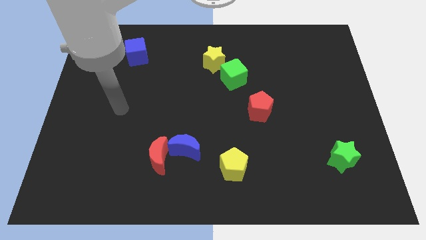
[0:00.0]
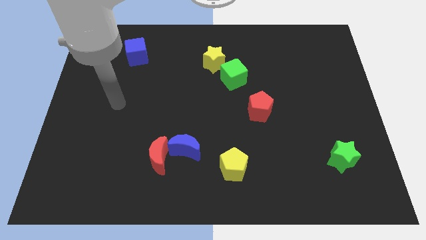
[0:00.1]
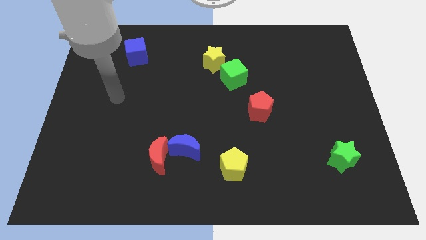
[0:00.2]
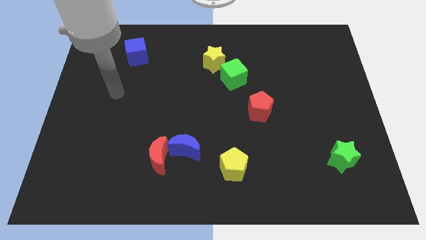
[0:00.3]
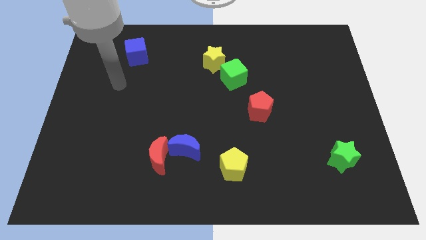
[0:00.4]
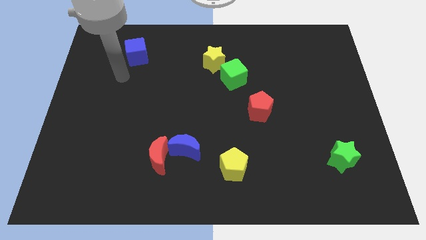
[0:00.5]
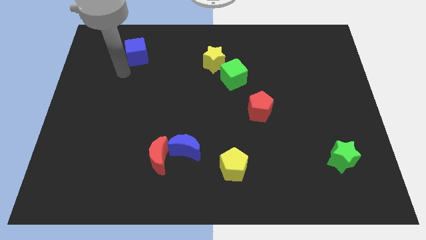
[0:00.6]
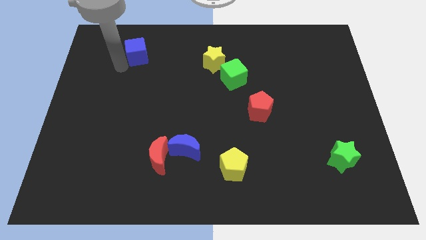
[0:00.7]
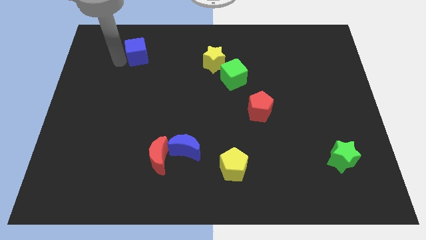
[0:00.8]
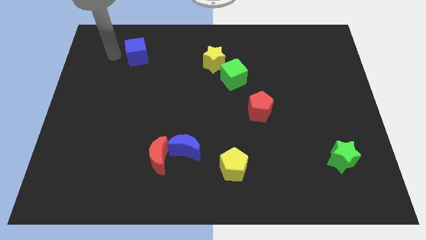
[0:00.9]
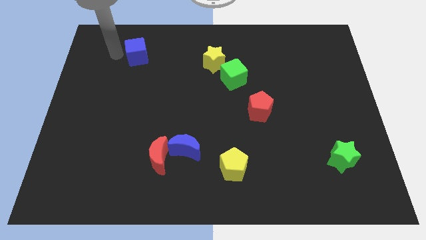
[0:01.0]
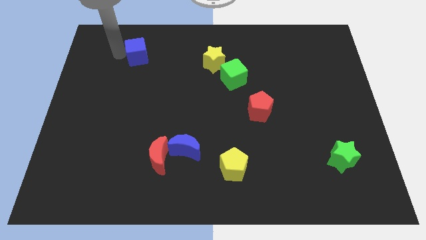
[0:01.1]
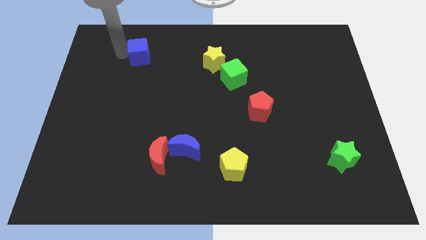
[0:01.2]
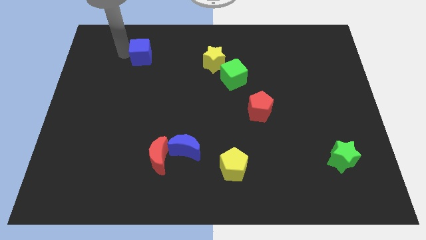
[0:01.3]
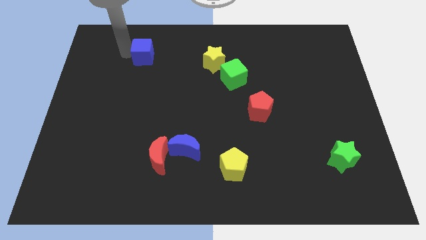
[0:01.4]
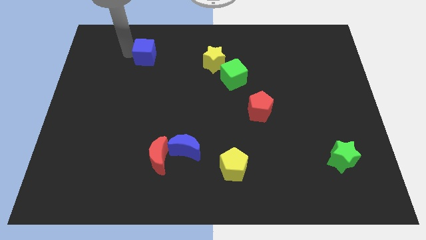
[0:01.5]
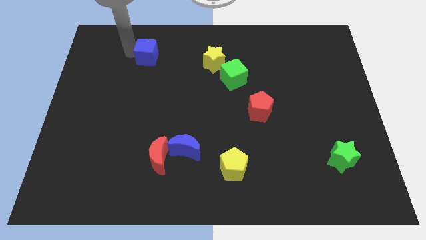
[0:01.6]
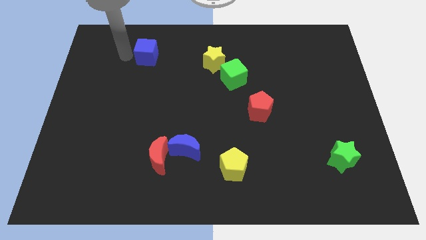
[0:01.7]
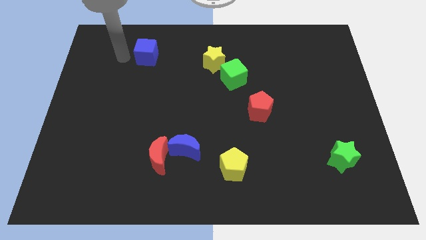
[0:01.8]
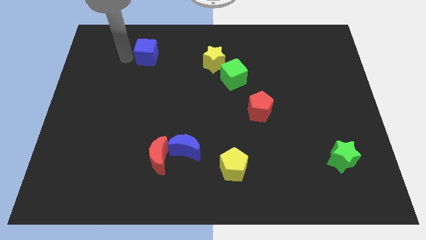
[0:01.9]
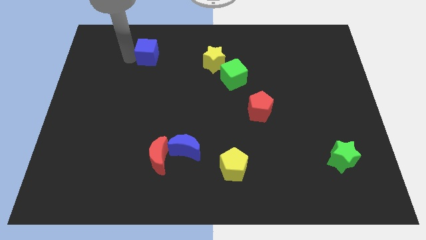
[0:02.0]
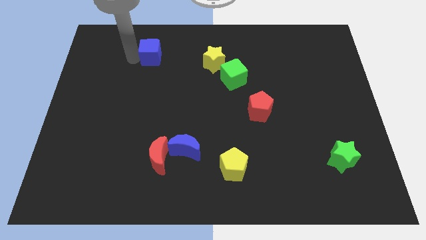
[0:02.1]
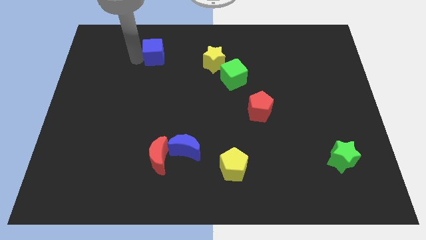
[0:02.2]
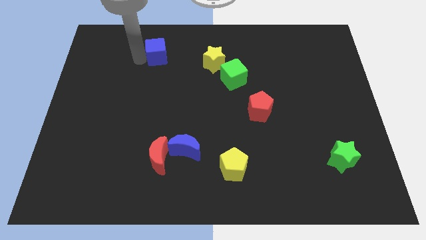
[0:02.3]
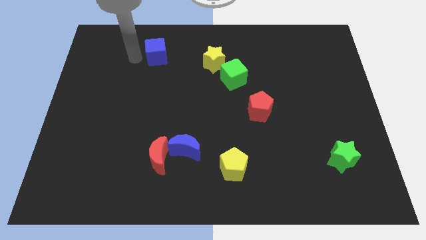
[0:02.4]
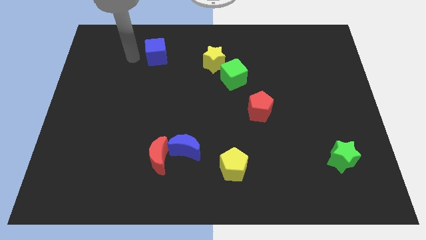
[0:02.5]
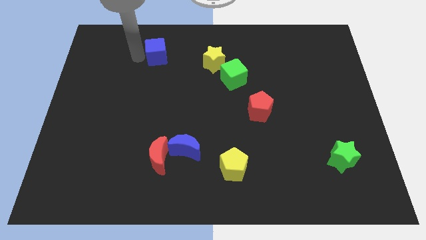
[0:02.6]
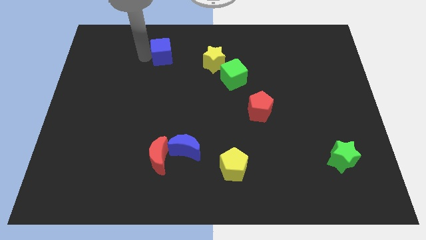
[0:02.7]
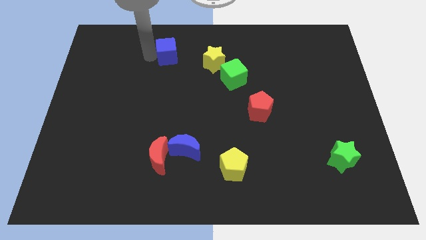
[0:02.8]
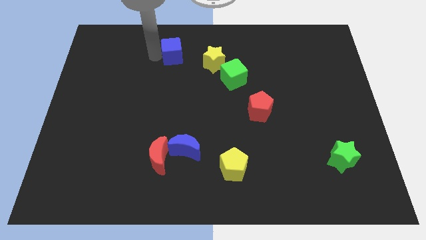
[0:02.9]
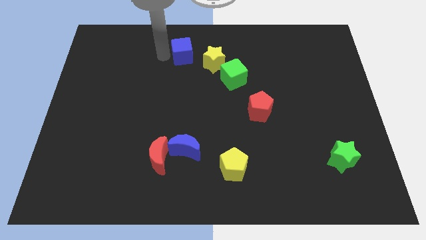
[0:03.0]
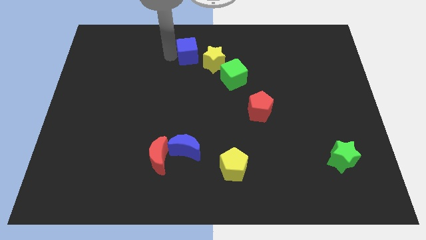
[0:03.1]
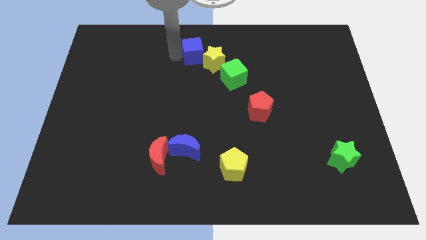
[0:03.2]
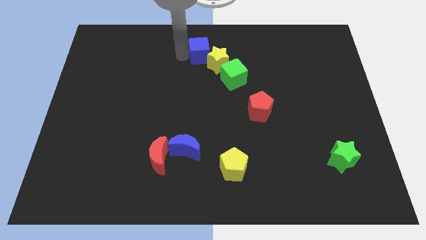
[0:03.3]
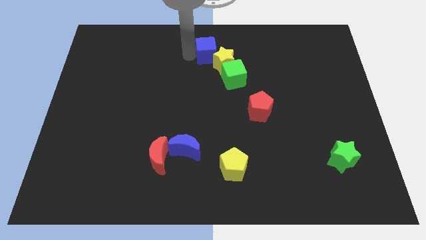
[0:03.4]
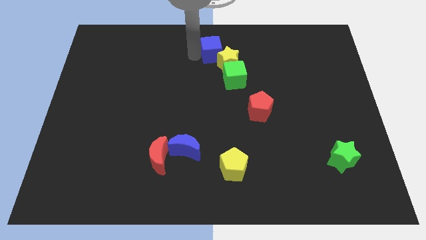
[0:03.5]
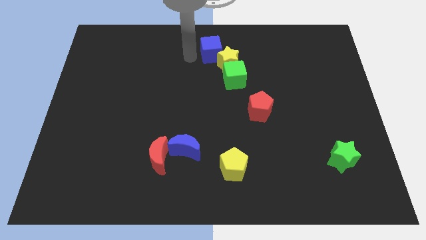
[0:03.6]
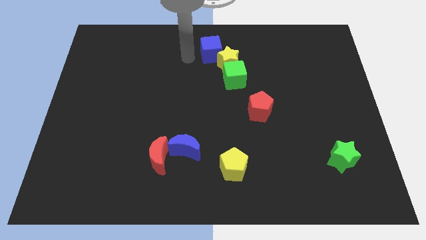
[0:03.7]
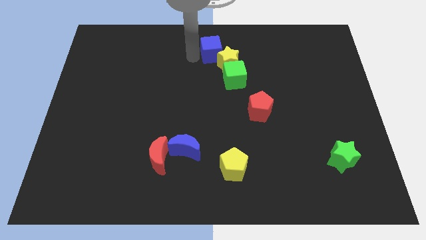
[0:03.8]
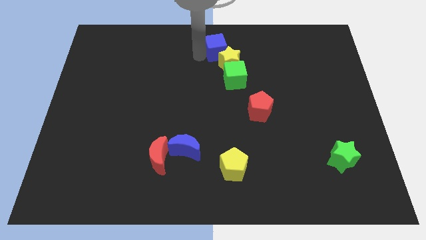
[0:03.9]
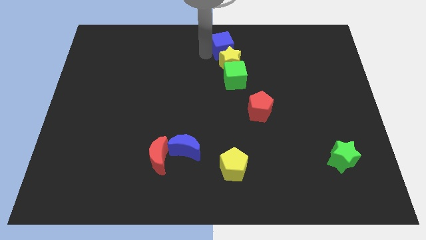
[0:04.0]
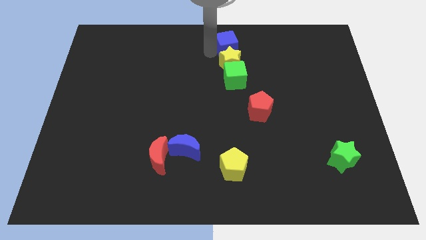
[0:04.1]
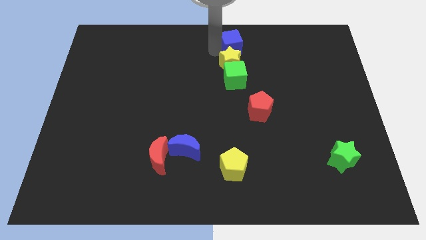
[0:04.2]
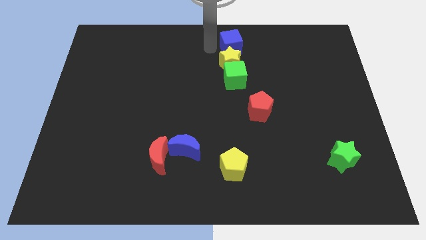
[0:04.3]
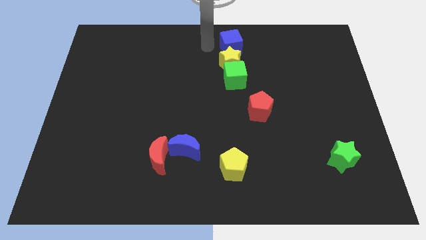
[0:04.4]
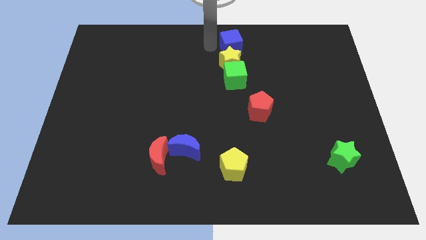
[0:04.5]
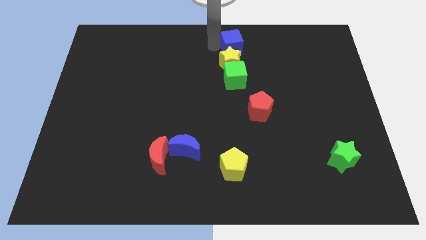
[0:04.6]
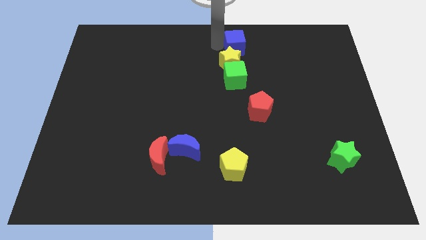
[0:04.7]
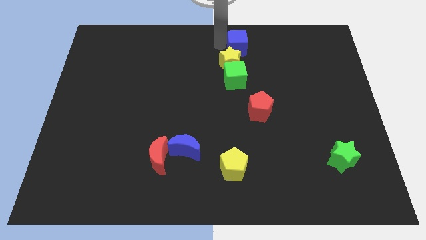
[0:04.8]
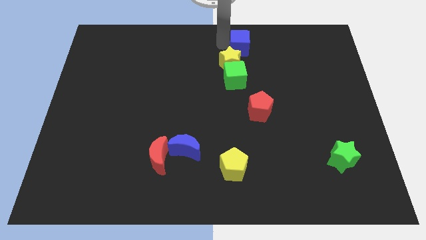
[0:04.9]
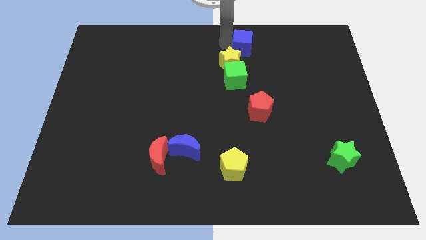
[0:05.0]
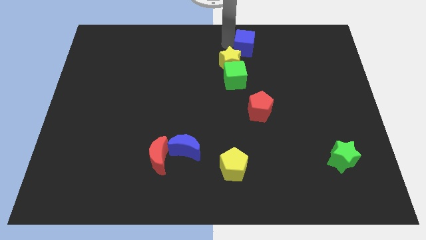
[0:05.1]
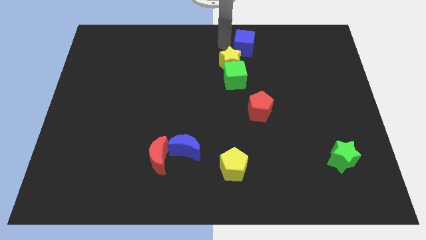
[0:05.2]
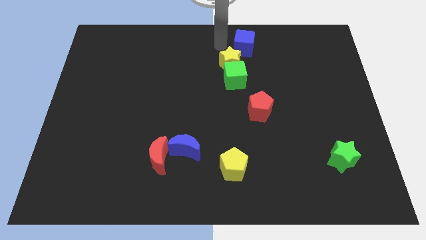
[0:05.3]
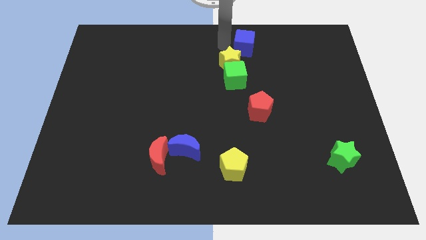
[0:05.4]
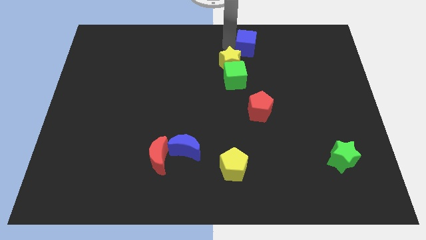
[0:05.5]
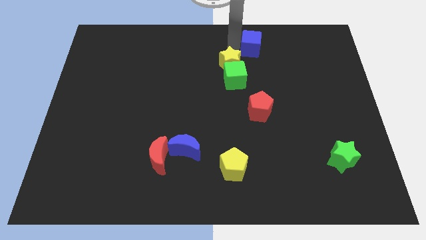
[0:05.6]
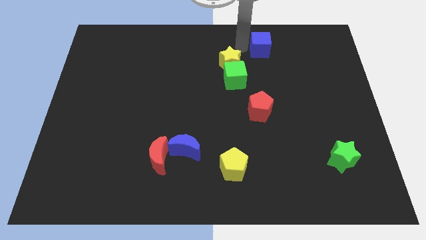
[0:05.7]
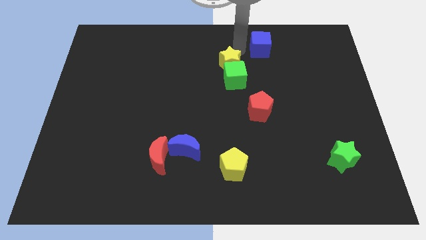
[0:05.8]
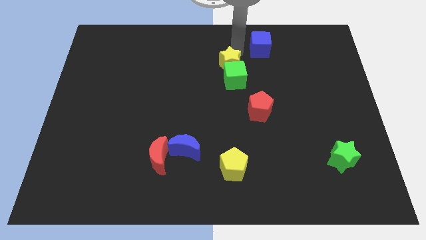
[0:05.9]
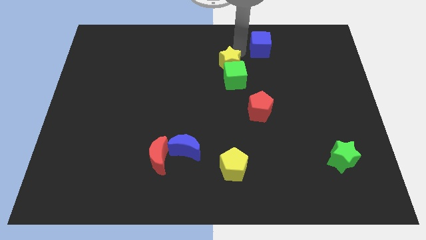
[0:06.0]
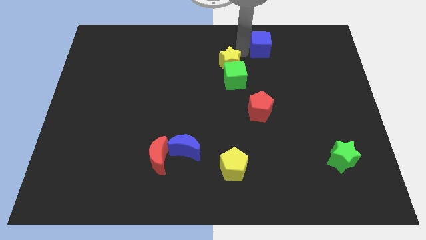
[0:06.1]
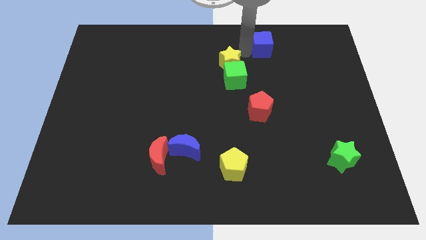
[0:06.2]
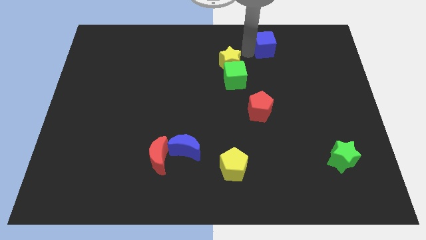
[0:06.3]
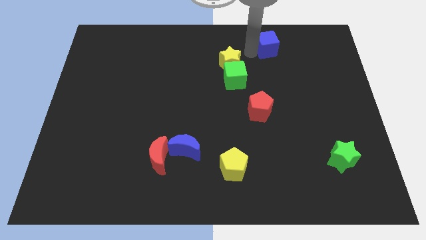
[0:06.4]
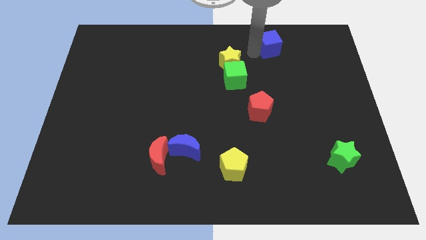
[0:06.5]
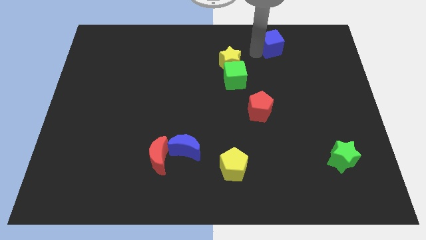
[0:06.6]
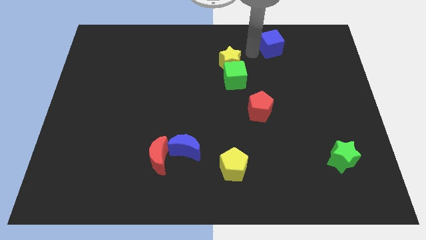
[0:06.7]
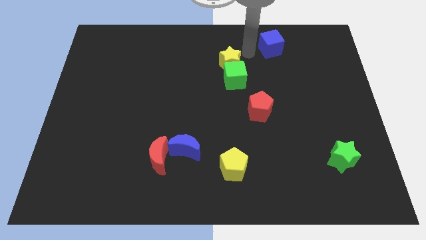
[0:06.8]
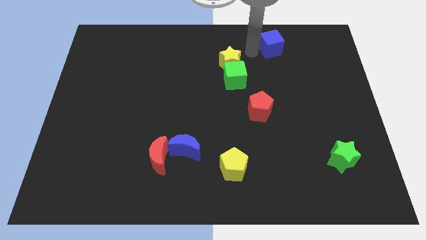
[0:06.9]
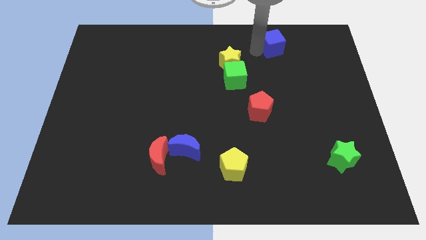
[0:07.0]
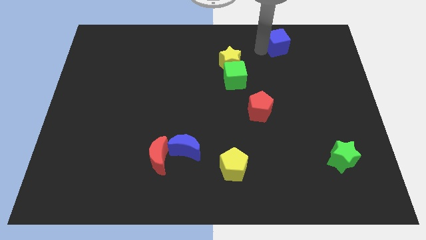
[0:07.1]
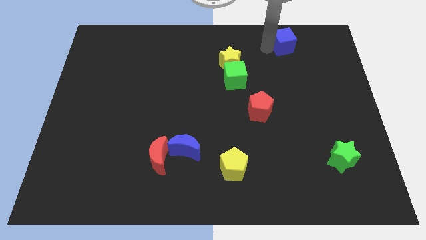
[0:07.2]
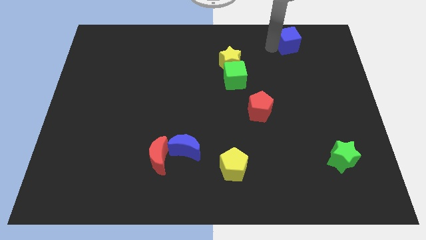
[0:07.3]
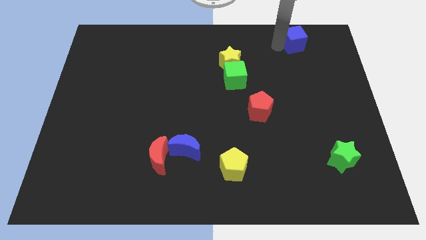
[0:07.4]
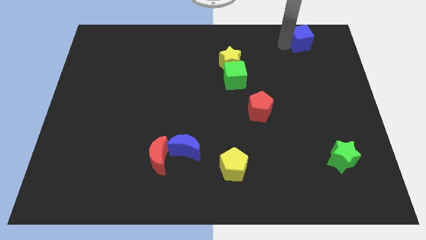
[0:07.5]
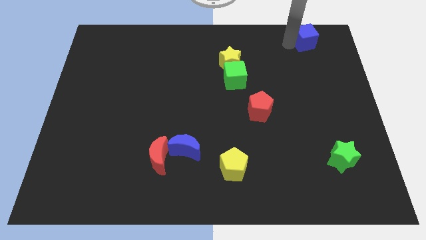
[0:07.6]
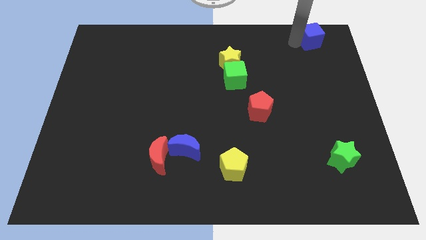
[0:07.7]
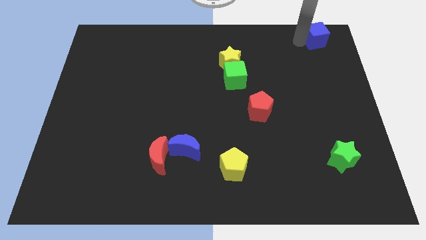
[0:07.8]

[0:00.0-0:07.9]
put the blue cube to the top right corner
